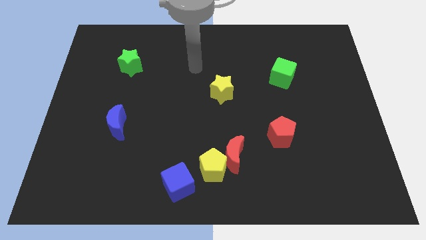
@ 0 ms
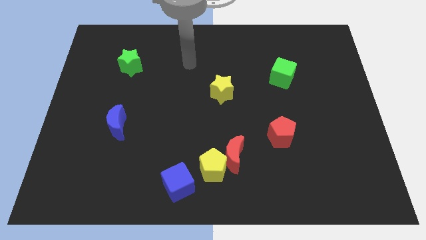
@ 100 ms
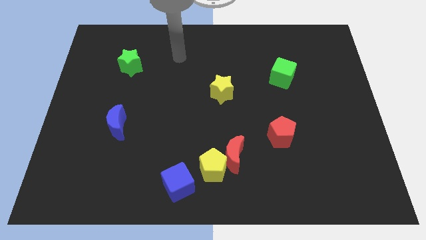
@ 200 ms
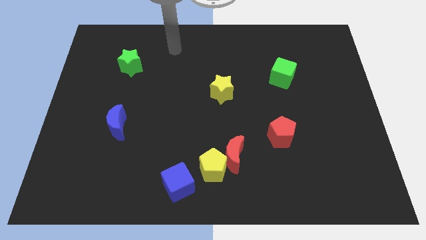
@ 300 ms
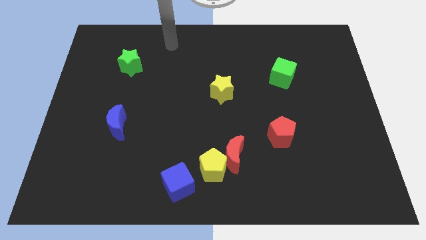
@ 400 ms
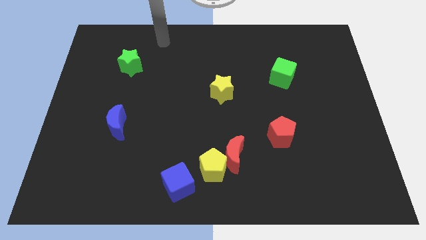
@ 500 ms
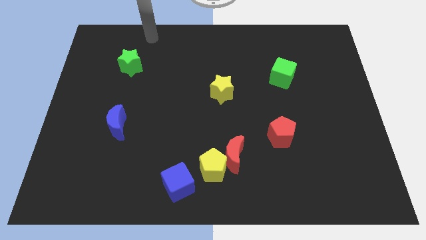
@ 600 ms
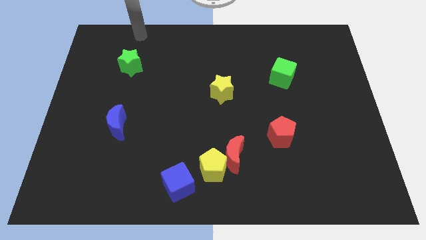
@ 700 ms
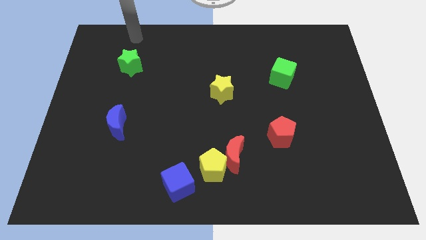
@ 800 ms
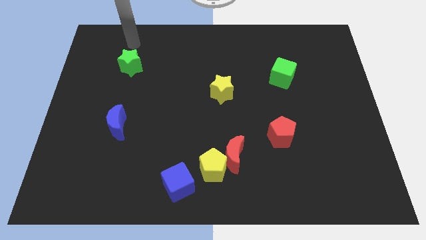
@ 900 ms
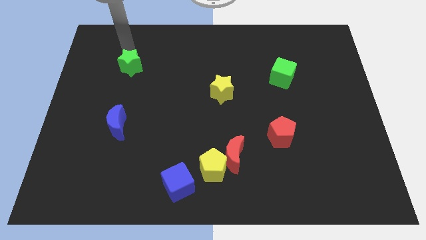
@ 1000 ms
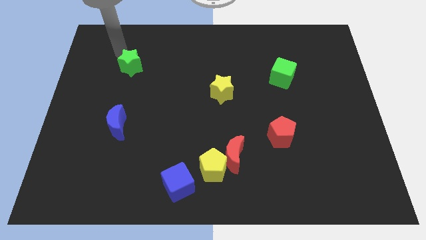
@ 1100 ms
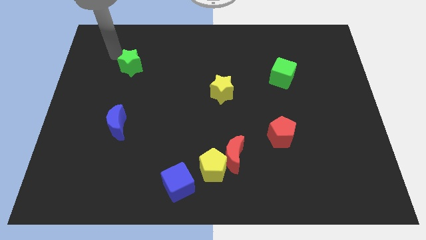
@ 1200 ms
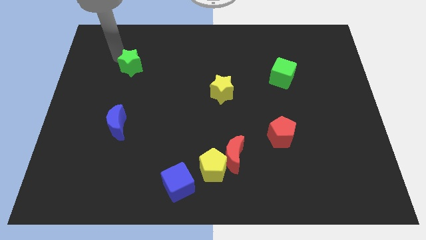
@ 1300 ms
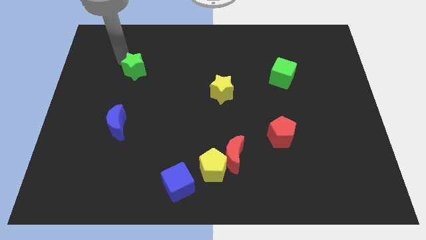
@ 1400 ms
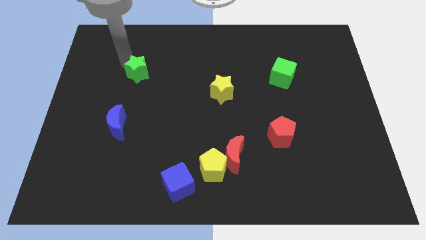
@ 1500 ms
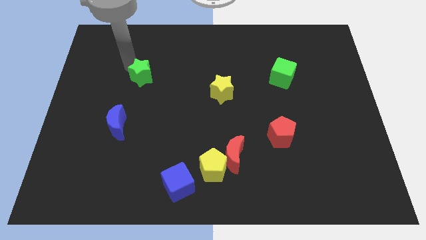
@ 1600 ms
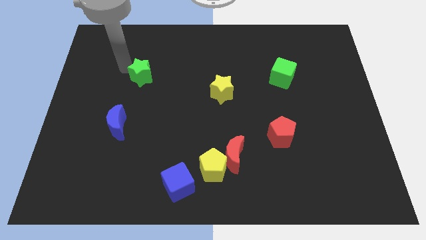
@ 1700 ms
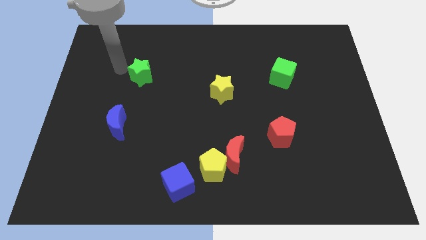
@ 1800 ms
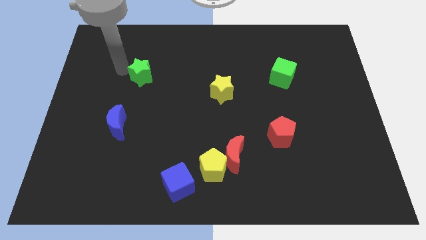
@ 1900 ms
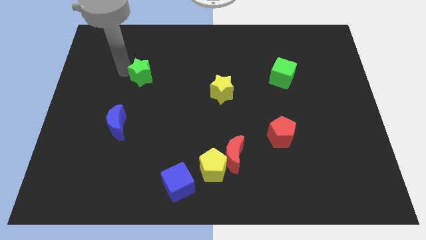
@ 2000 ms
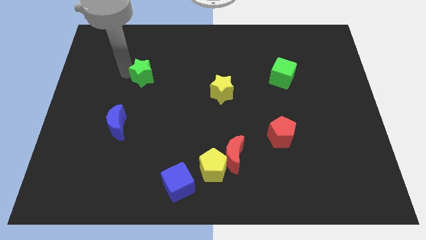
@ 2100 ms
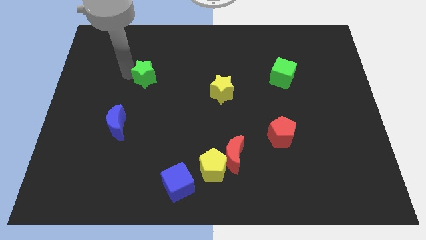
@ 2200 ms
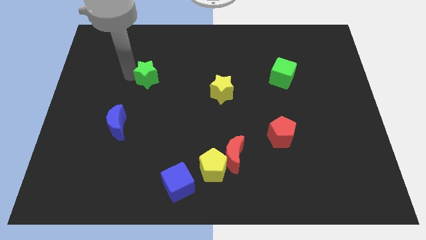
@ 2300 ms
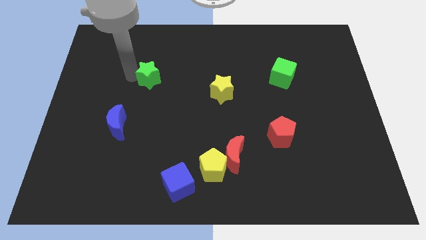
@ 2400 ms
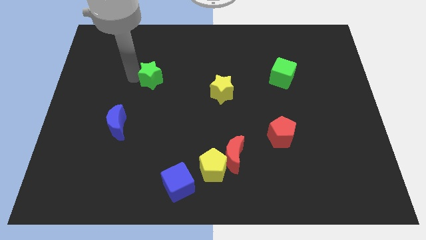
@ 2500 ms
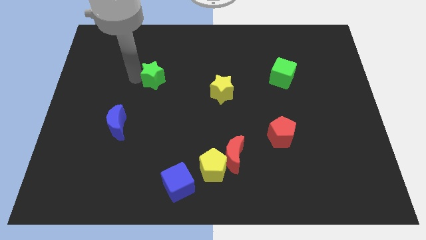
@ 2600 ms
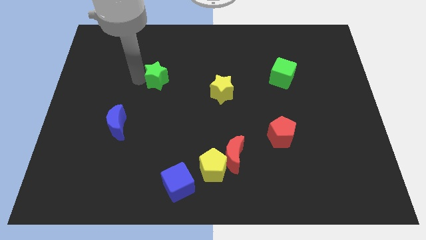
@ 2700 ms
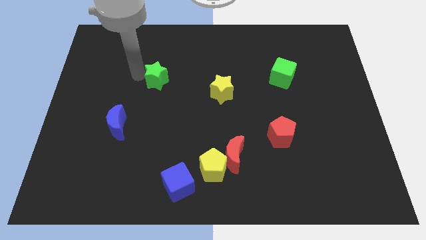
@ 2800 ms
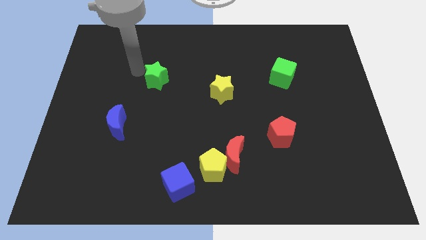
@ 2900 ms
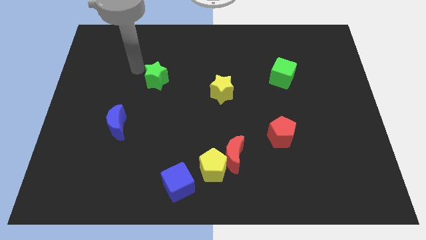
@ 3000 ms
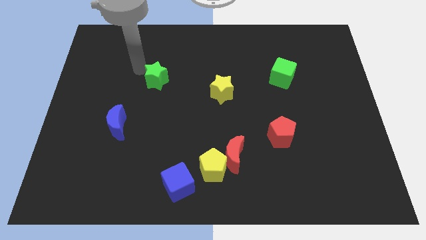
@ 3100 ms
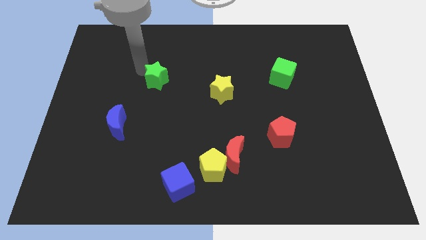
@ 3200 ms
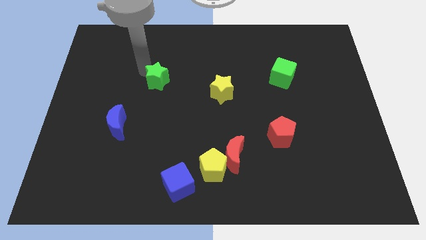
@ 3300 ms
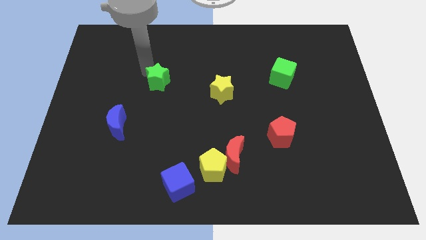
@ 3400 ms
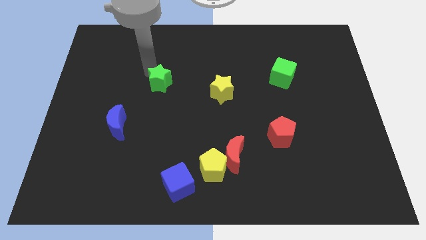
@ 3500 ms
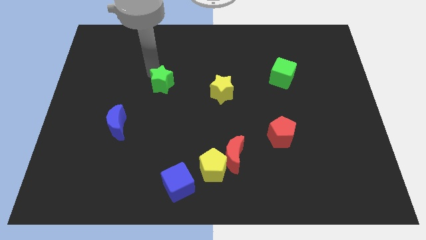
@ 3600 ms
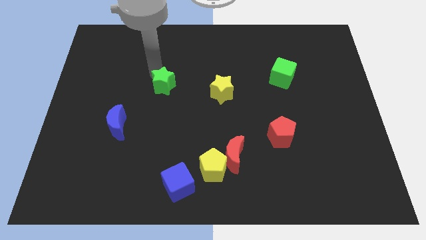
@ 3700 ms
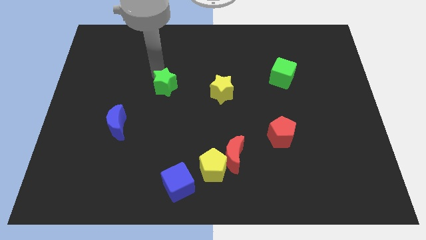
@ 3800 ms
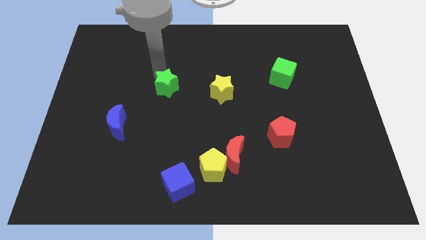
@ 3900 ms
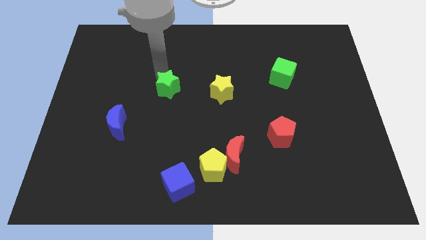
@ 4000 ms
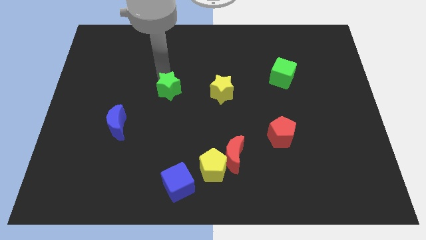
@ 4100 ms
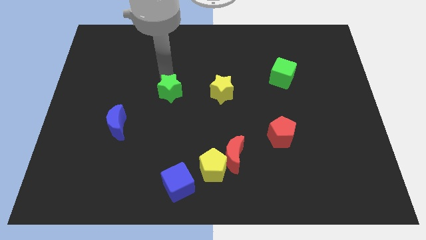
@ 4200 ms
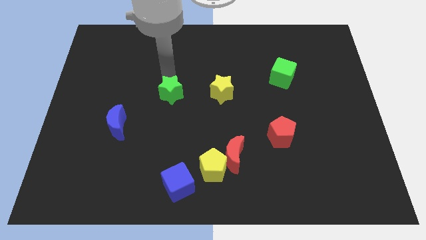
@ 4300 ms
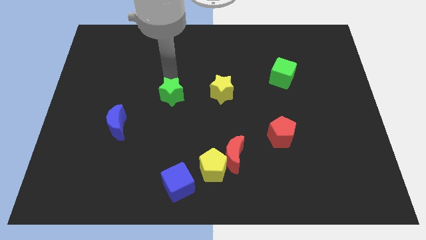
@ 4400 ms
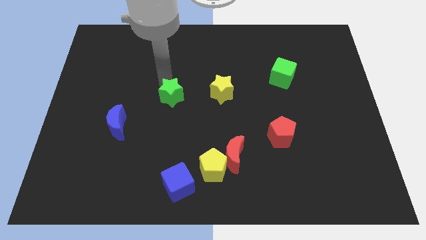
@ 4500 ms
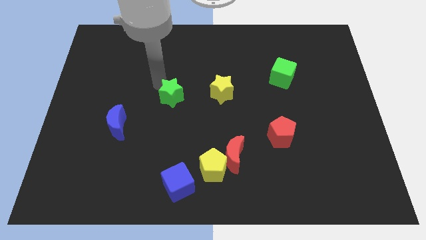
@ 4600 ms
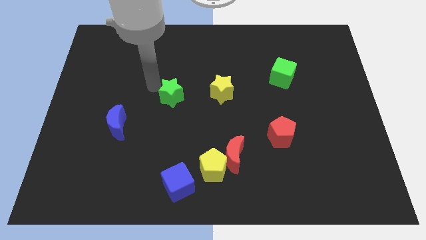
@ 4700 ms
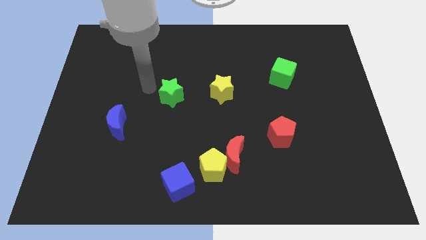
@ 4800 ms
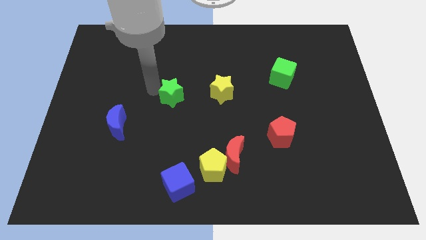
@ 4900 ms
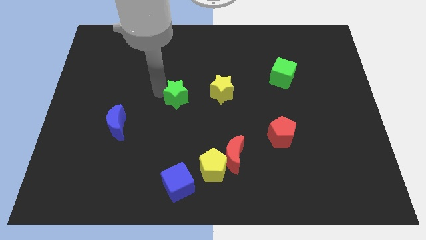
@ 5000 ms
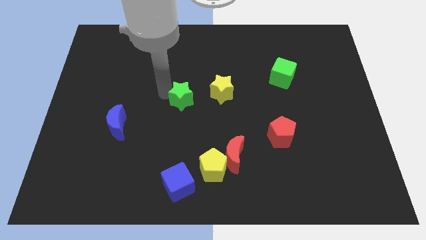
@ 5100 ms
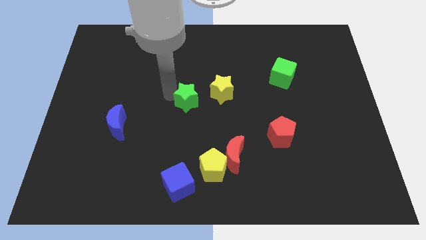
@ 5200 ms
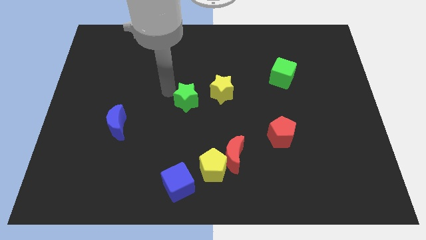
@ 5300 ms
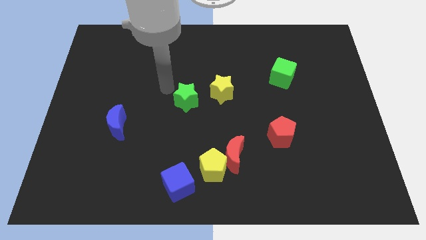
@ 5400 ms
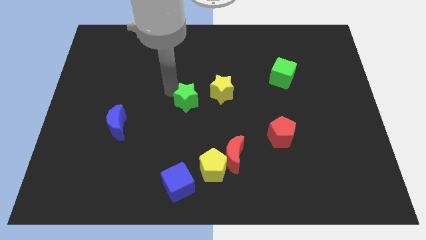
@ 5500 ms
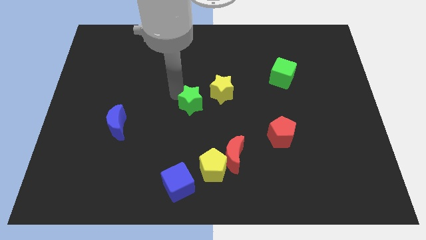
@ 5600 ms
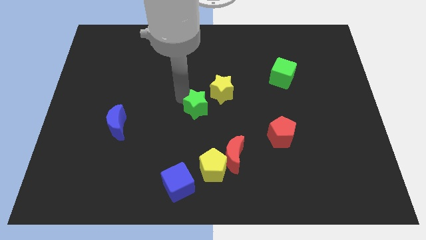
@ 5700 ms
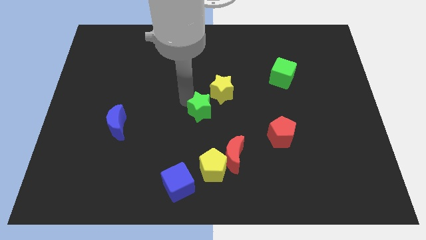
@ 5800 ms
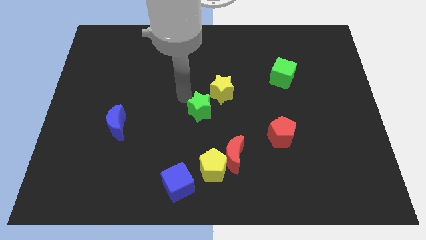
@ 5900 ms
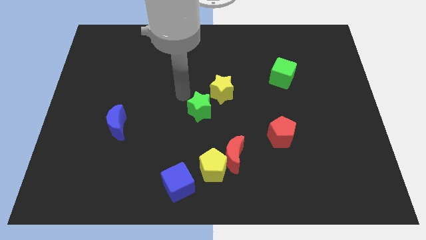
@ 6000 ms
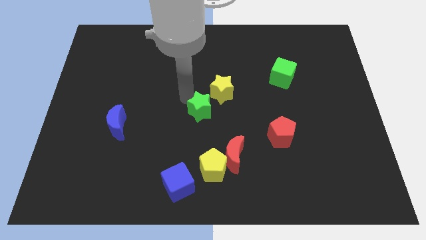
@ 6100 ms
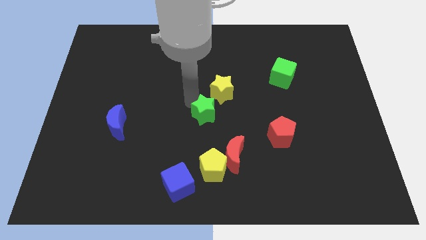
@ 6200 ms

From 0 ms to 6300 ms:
put the green star below the yellow star

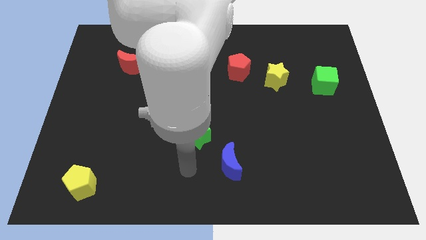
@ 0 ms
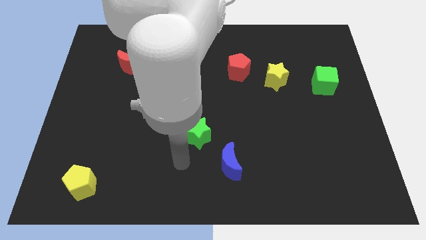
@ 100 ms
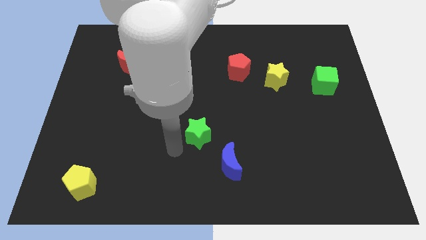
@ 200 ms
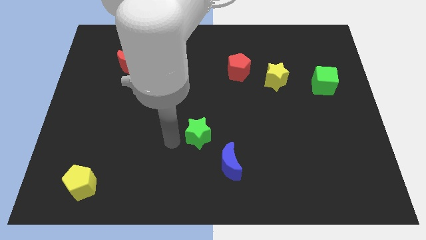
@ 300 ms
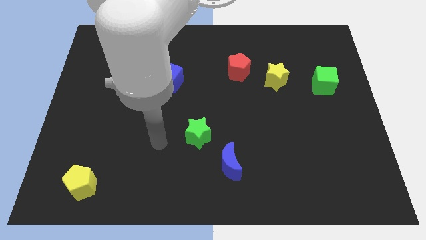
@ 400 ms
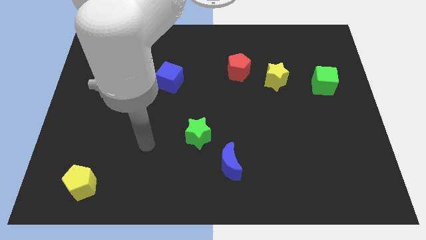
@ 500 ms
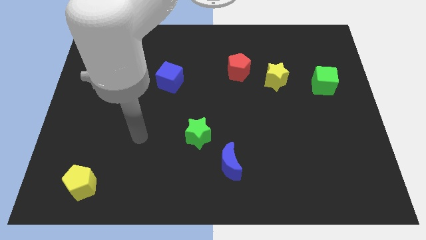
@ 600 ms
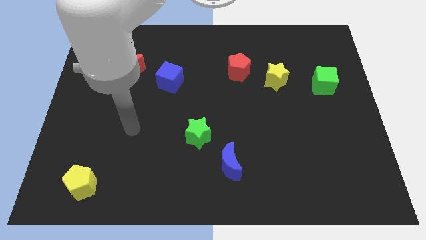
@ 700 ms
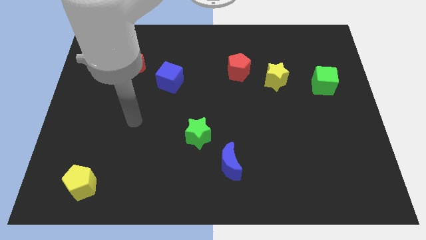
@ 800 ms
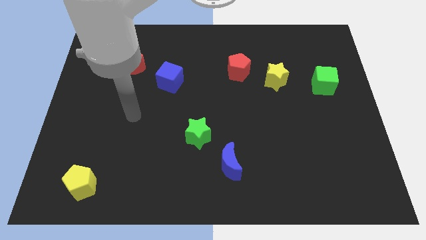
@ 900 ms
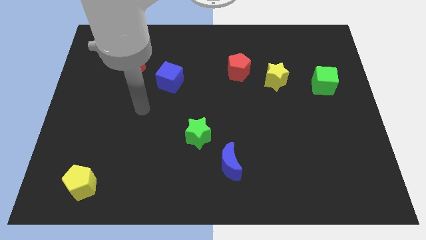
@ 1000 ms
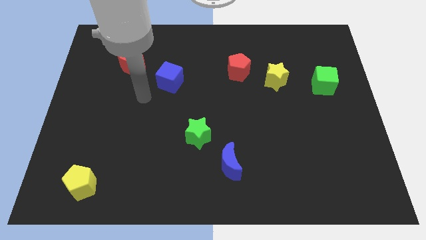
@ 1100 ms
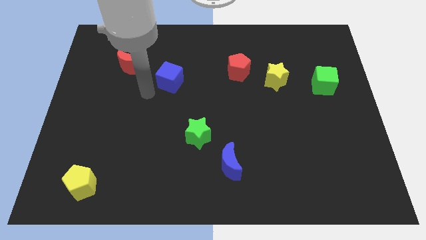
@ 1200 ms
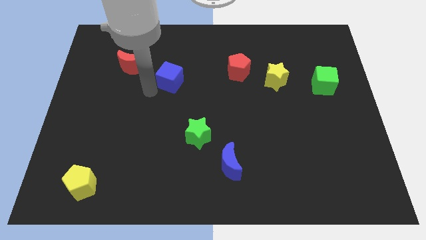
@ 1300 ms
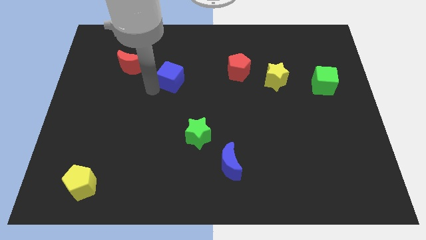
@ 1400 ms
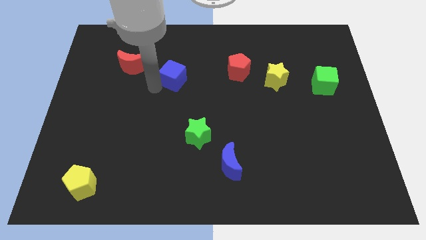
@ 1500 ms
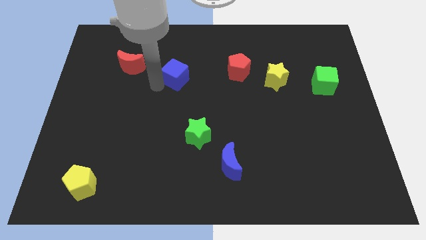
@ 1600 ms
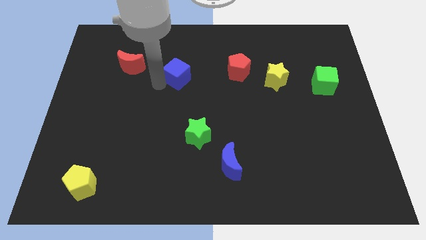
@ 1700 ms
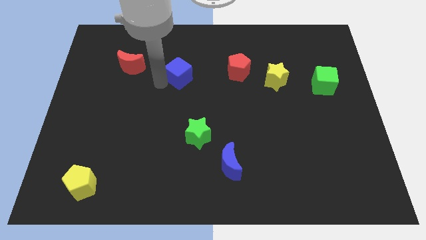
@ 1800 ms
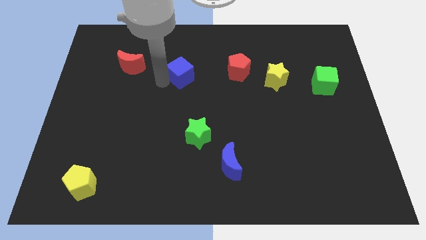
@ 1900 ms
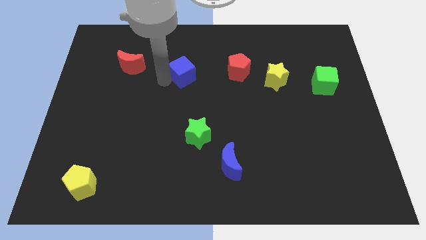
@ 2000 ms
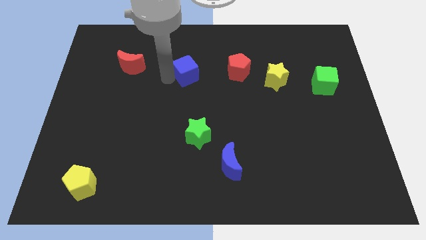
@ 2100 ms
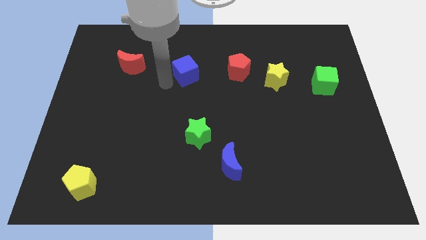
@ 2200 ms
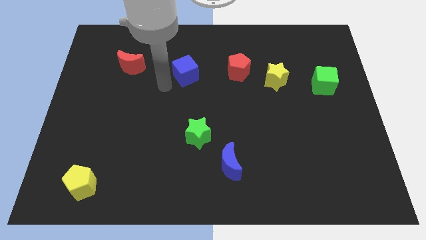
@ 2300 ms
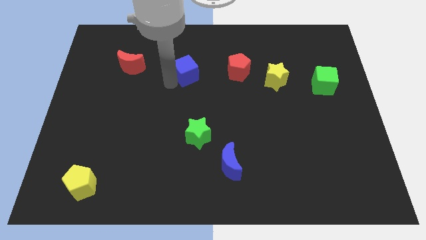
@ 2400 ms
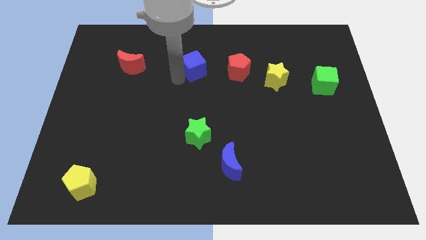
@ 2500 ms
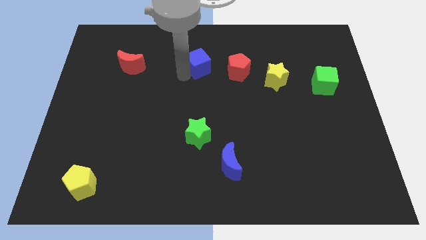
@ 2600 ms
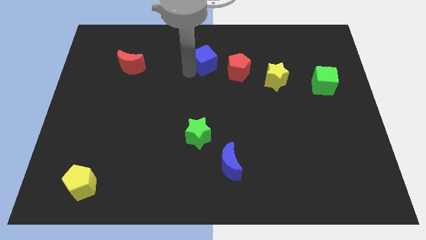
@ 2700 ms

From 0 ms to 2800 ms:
slide the blue cube diagonally up and to the left of the red pentagon
